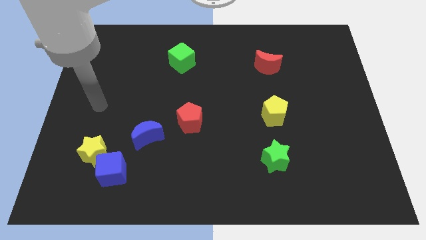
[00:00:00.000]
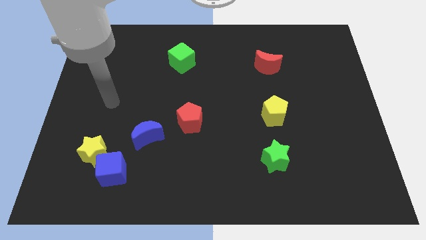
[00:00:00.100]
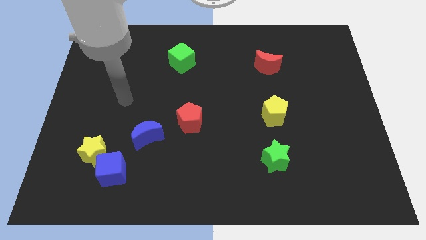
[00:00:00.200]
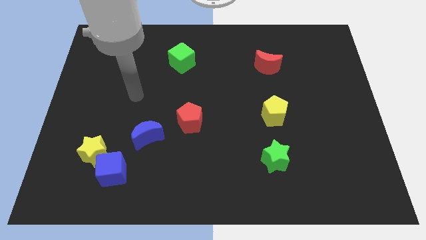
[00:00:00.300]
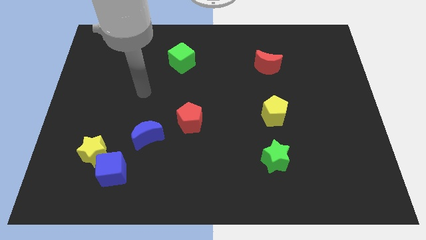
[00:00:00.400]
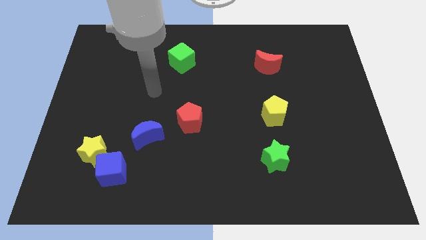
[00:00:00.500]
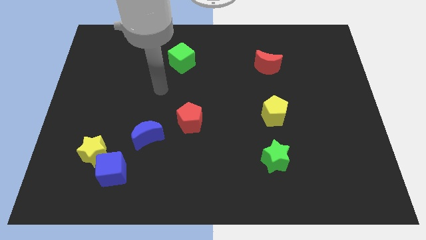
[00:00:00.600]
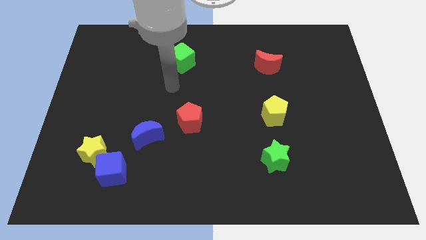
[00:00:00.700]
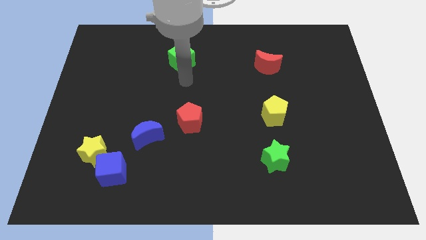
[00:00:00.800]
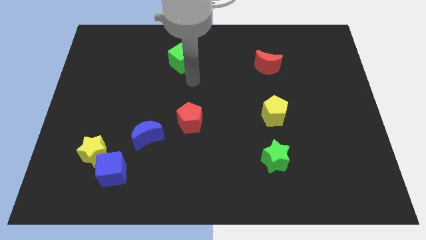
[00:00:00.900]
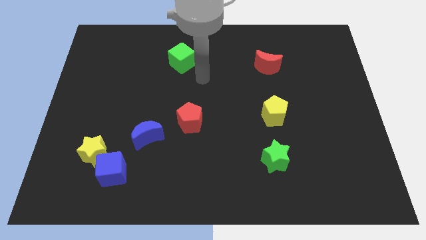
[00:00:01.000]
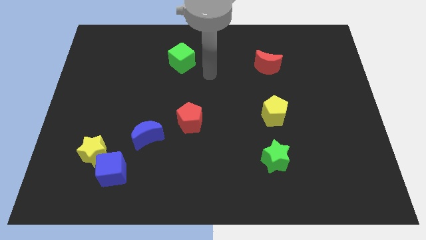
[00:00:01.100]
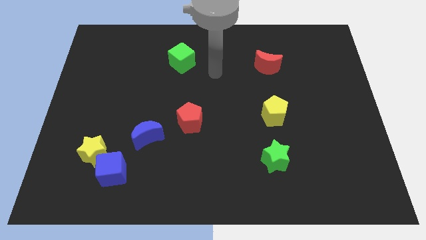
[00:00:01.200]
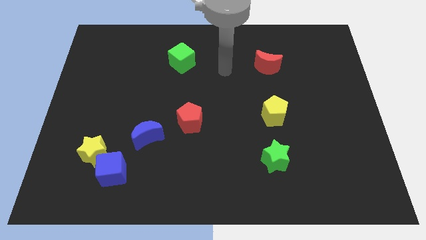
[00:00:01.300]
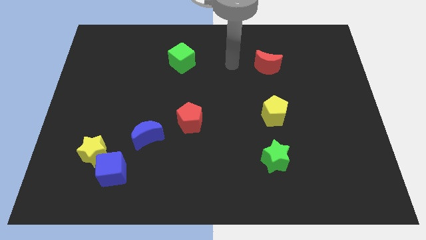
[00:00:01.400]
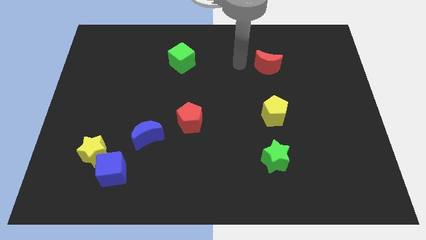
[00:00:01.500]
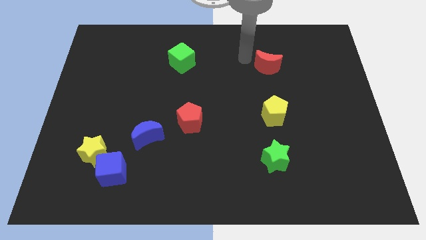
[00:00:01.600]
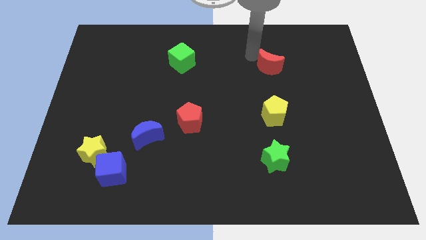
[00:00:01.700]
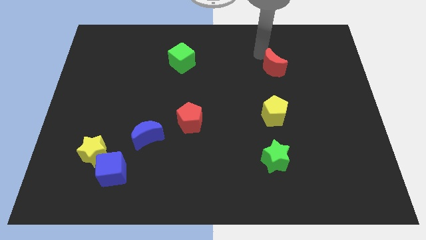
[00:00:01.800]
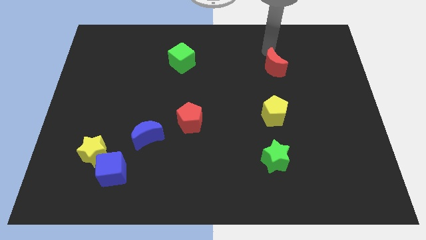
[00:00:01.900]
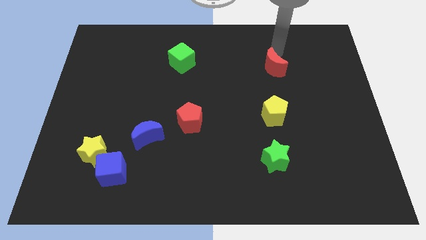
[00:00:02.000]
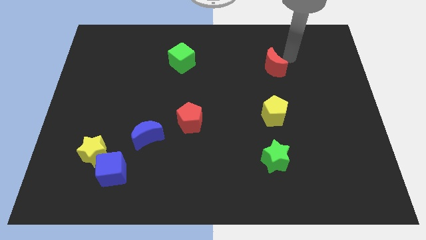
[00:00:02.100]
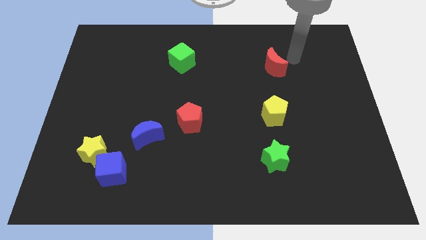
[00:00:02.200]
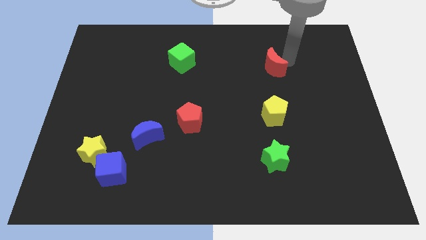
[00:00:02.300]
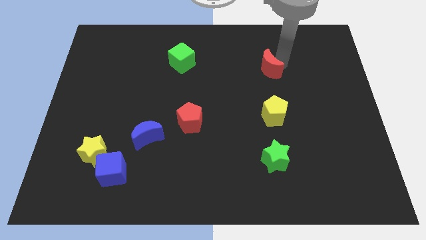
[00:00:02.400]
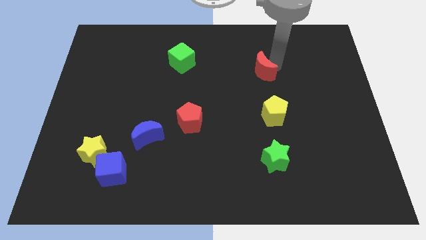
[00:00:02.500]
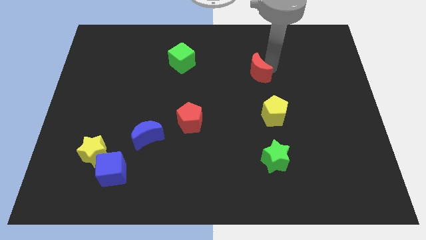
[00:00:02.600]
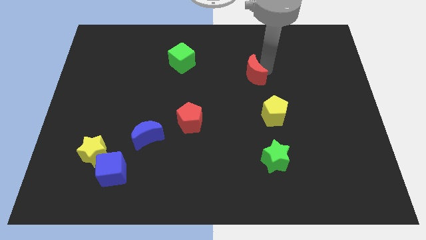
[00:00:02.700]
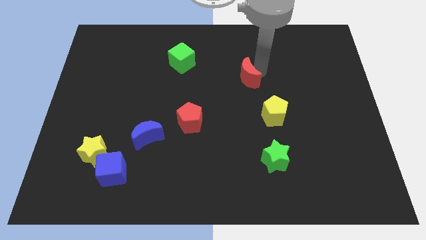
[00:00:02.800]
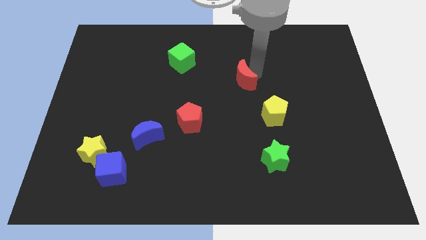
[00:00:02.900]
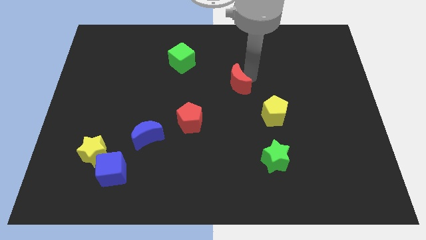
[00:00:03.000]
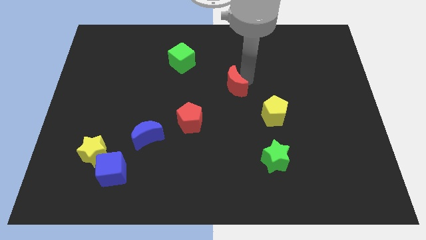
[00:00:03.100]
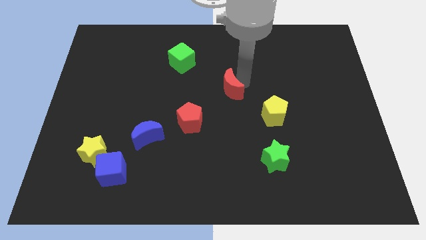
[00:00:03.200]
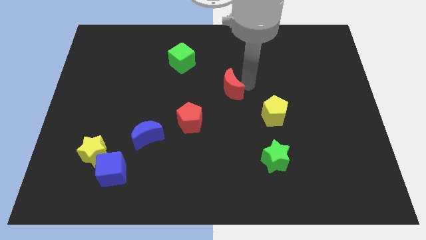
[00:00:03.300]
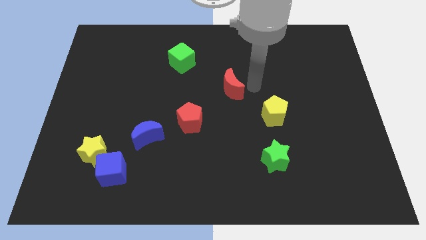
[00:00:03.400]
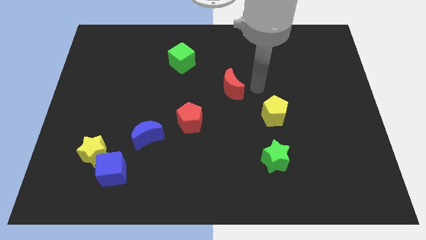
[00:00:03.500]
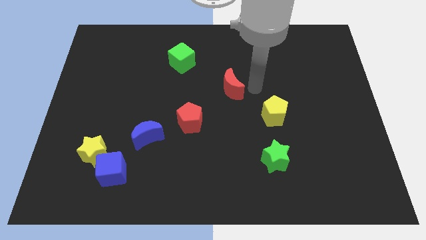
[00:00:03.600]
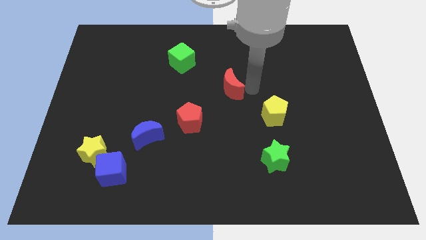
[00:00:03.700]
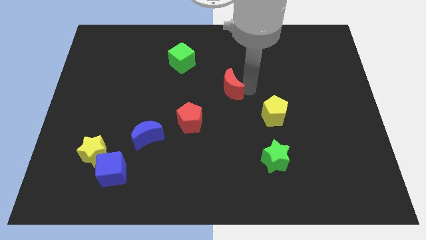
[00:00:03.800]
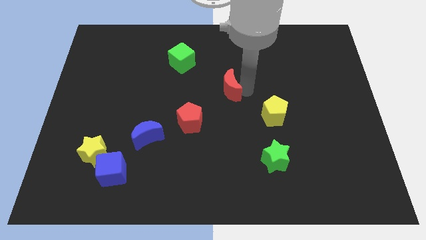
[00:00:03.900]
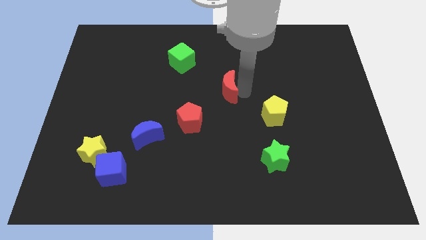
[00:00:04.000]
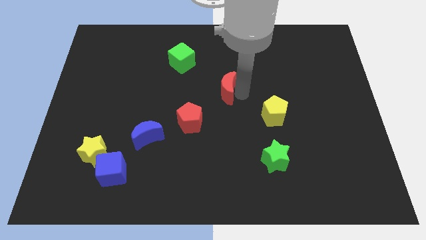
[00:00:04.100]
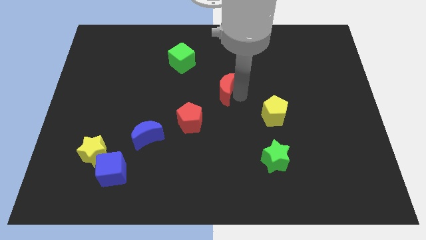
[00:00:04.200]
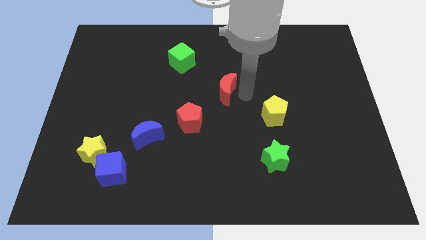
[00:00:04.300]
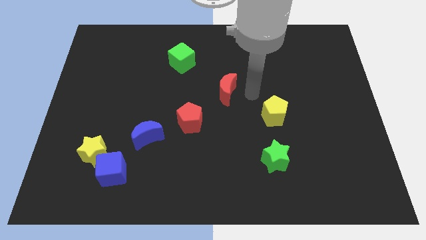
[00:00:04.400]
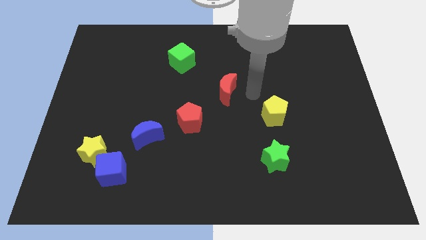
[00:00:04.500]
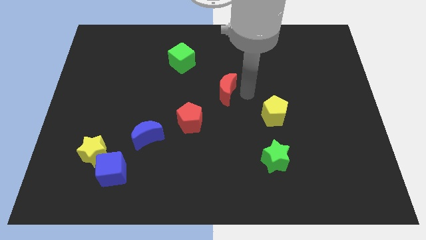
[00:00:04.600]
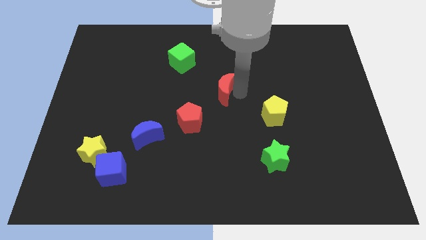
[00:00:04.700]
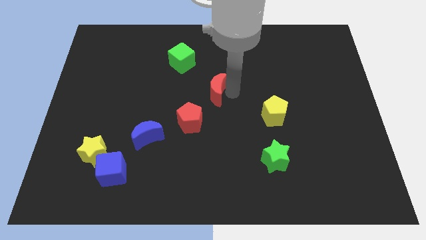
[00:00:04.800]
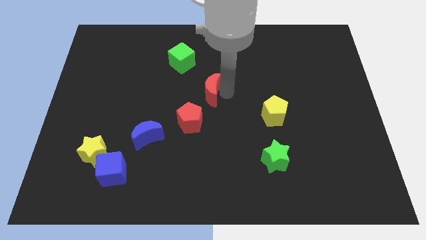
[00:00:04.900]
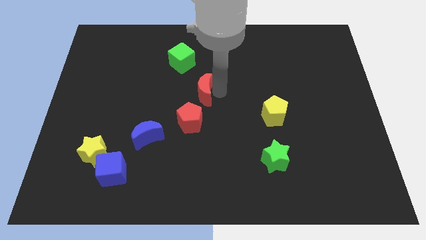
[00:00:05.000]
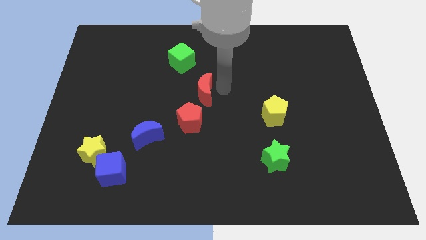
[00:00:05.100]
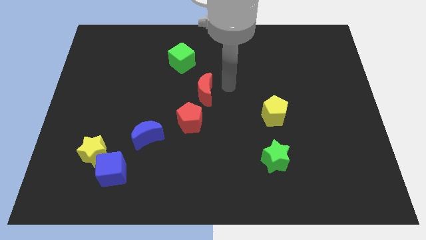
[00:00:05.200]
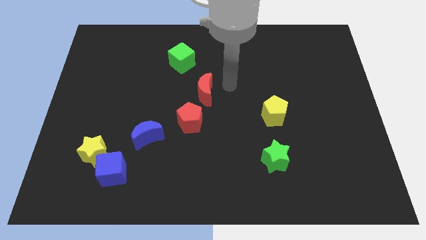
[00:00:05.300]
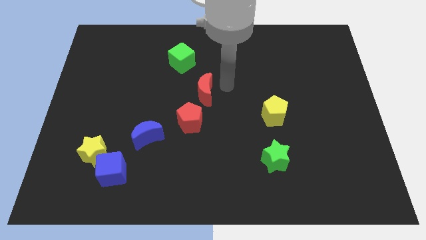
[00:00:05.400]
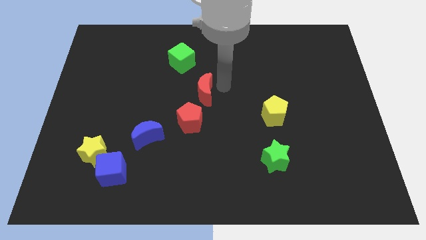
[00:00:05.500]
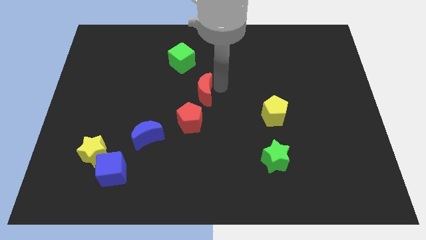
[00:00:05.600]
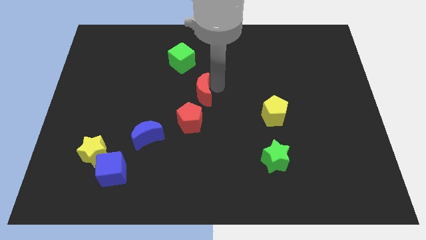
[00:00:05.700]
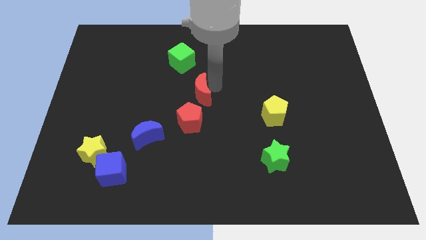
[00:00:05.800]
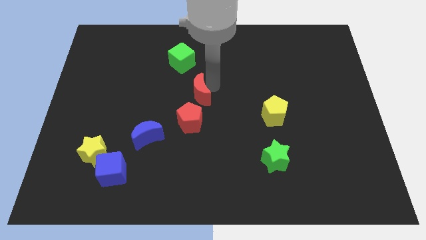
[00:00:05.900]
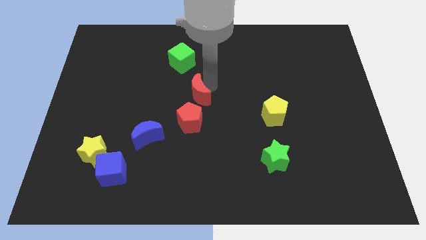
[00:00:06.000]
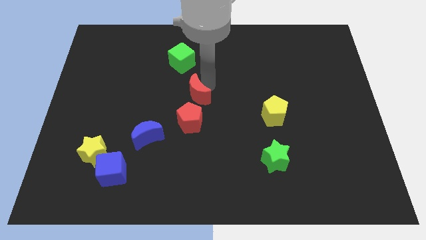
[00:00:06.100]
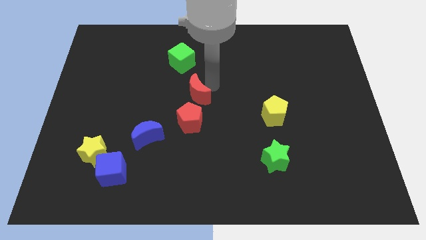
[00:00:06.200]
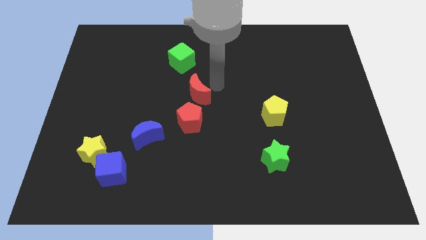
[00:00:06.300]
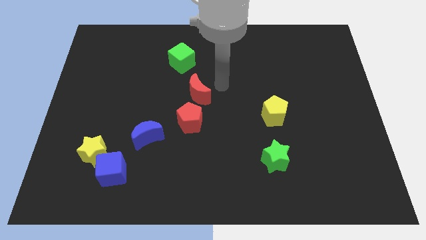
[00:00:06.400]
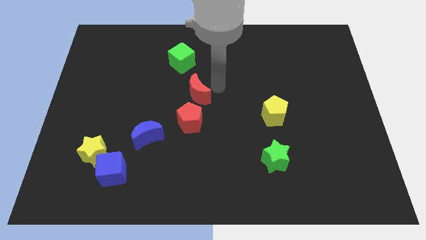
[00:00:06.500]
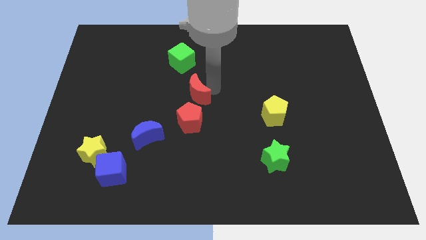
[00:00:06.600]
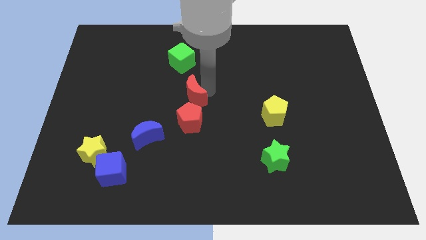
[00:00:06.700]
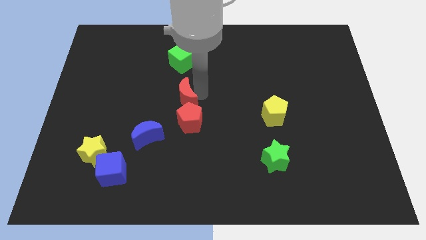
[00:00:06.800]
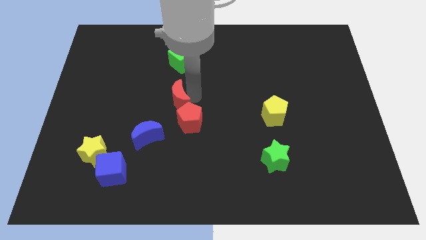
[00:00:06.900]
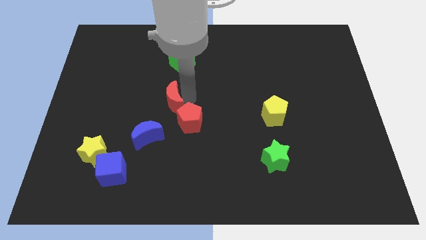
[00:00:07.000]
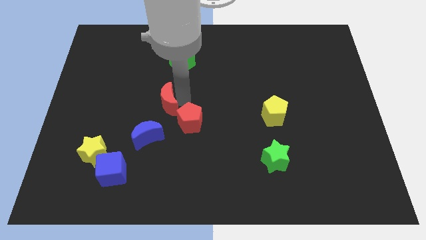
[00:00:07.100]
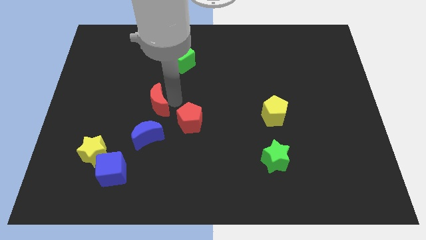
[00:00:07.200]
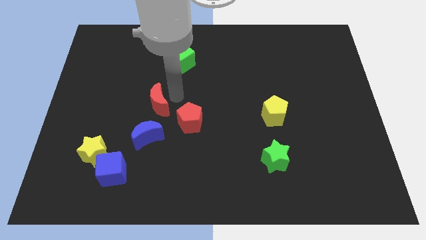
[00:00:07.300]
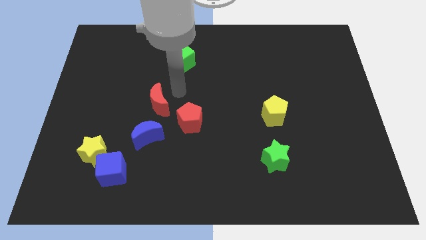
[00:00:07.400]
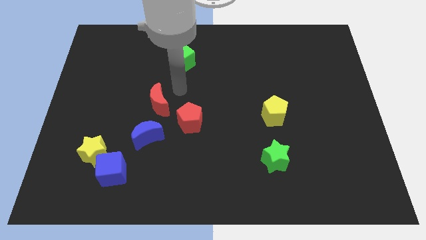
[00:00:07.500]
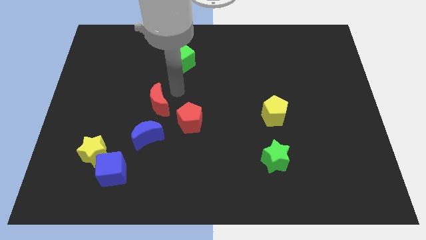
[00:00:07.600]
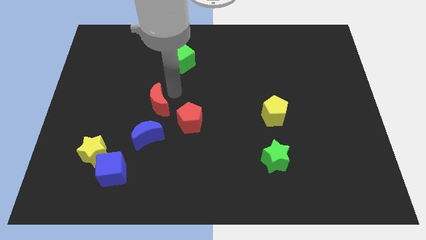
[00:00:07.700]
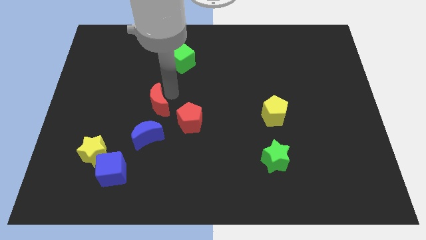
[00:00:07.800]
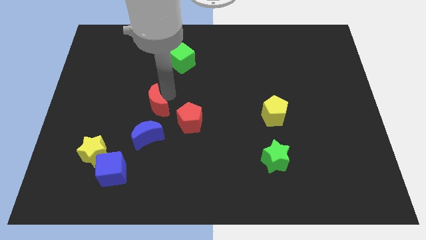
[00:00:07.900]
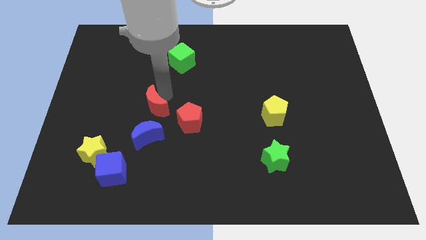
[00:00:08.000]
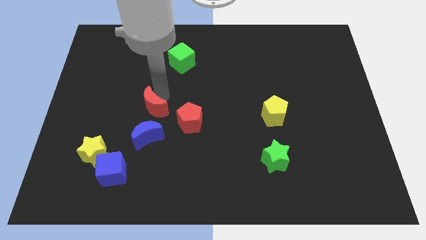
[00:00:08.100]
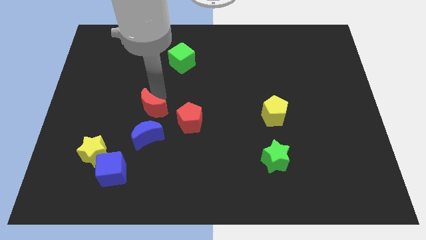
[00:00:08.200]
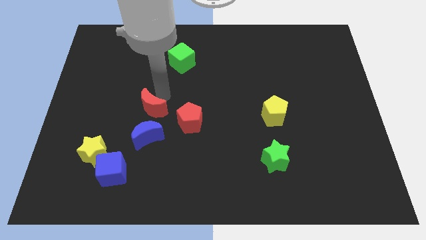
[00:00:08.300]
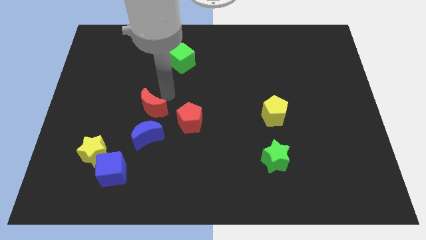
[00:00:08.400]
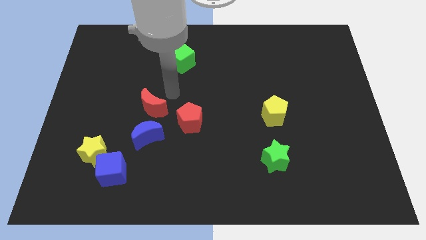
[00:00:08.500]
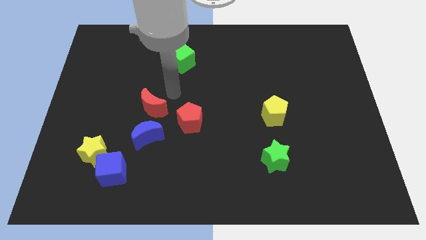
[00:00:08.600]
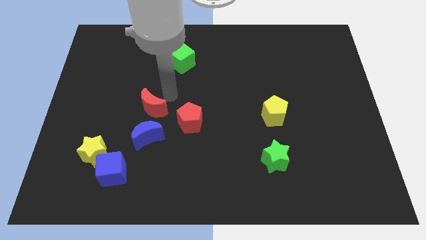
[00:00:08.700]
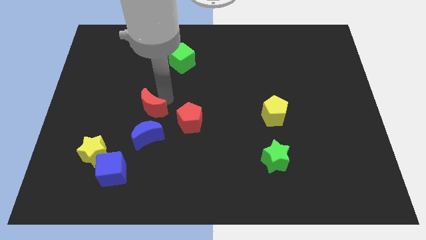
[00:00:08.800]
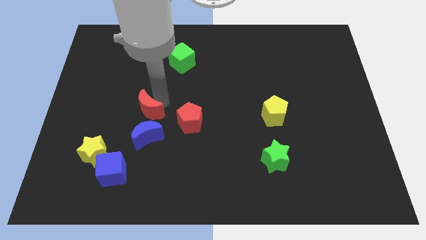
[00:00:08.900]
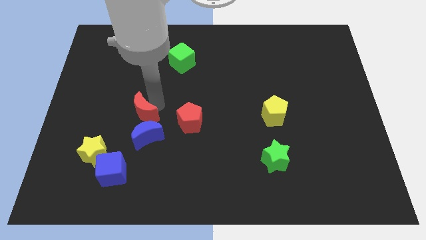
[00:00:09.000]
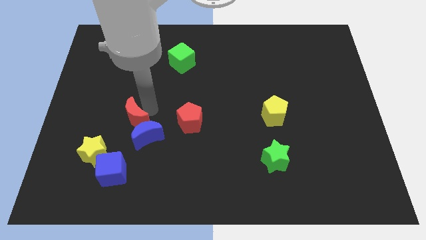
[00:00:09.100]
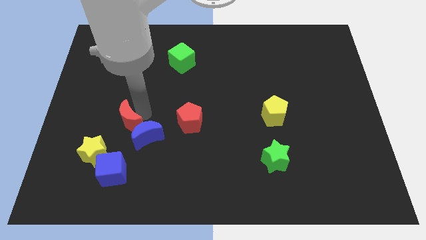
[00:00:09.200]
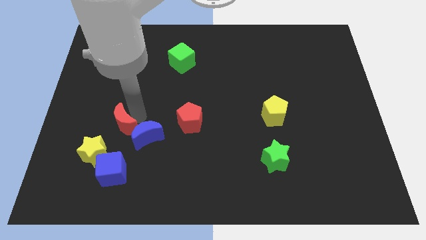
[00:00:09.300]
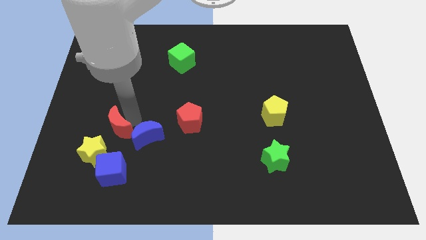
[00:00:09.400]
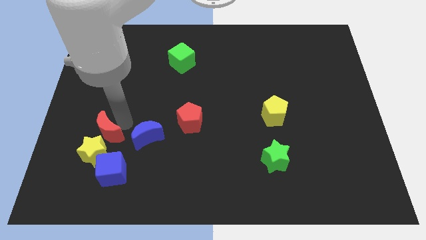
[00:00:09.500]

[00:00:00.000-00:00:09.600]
put the red moon towards the yellow star
